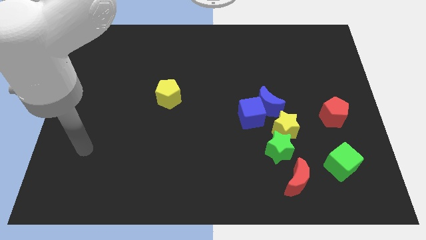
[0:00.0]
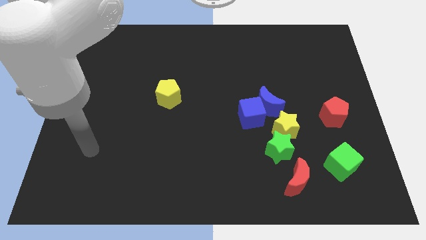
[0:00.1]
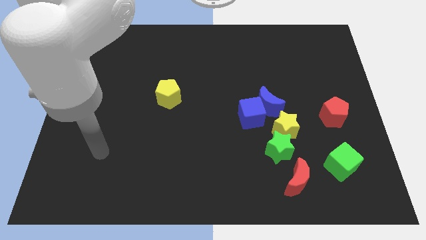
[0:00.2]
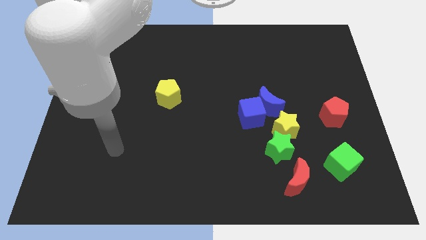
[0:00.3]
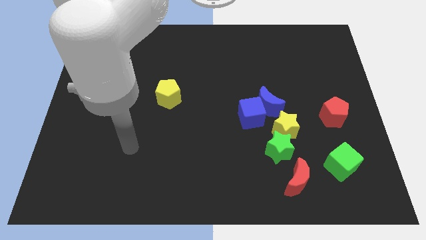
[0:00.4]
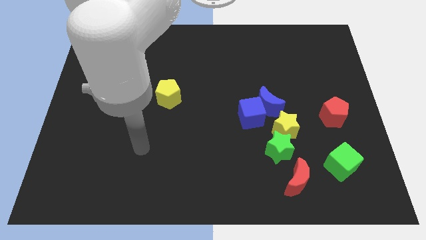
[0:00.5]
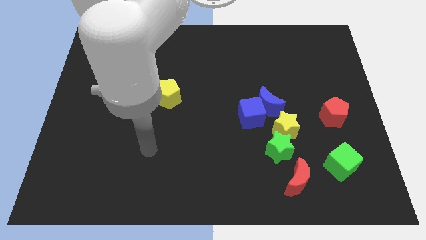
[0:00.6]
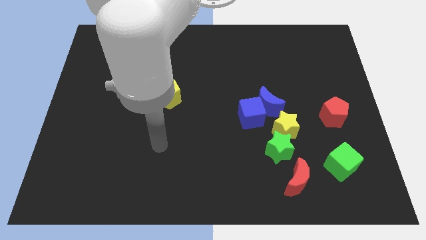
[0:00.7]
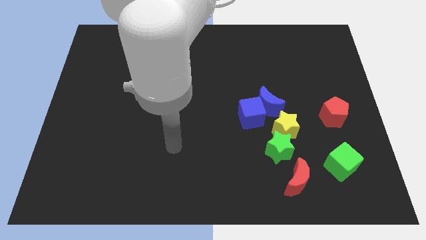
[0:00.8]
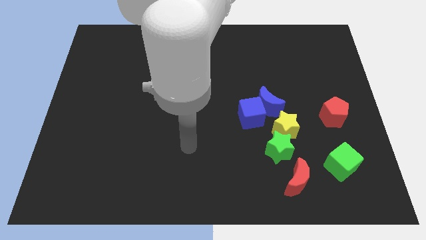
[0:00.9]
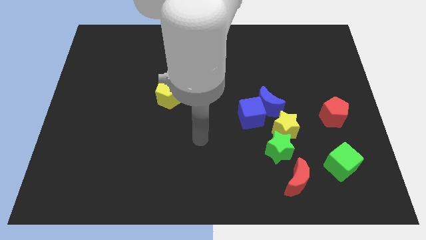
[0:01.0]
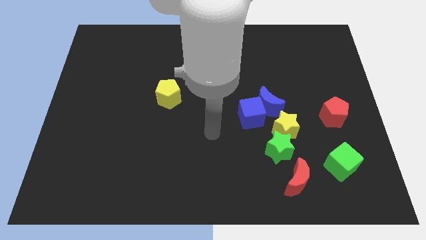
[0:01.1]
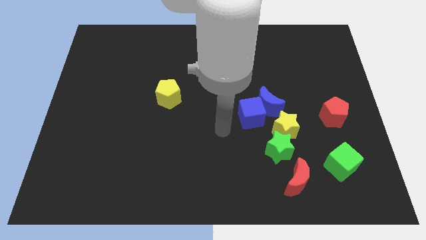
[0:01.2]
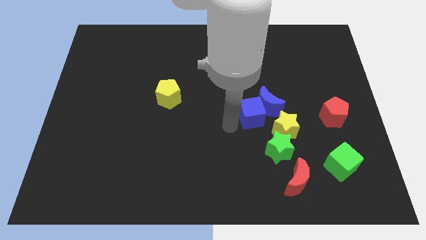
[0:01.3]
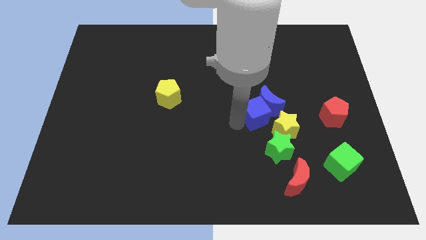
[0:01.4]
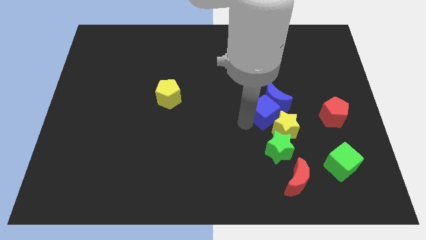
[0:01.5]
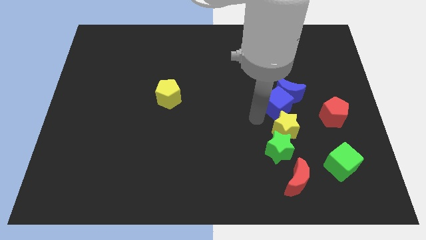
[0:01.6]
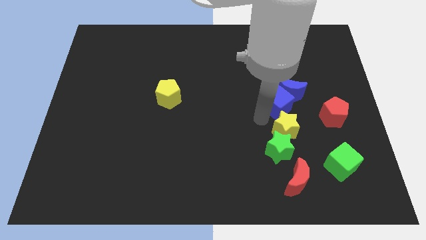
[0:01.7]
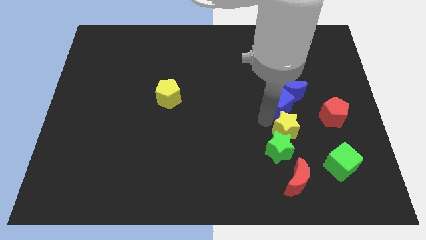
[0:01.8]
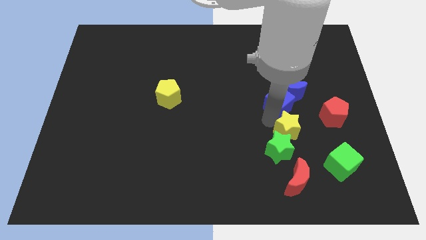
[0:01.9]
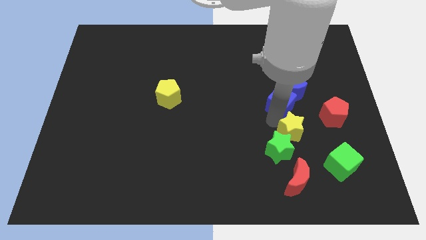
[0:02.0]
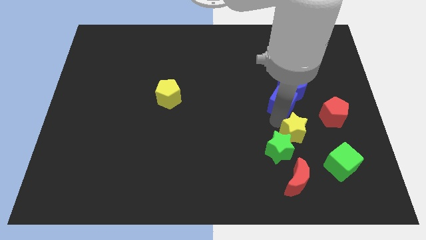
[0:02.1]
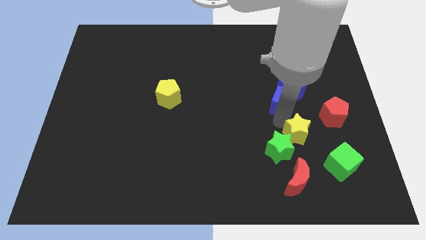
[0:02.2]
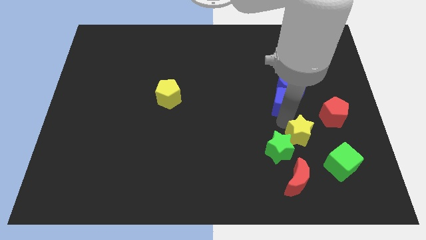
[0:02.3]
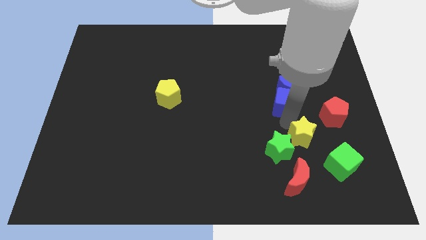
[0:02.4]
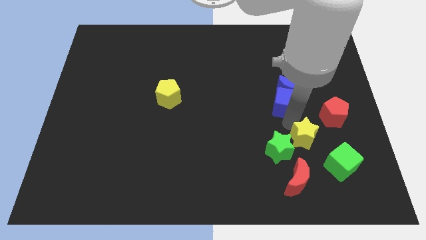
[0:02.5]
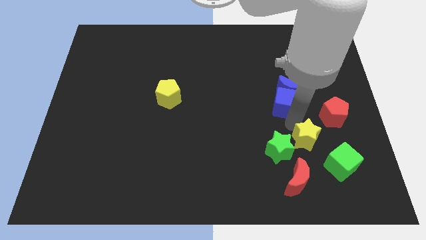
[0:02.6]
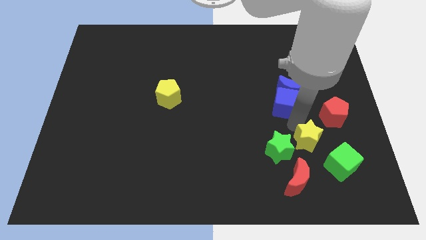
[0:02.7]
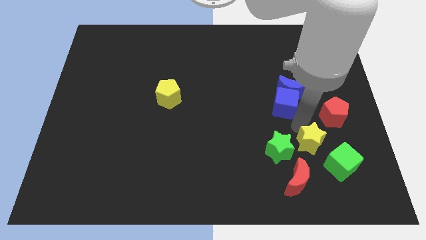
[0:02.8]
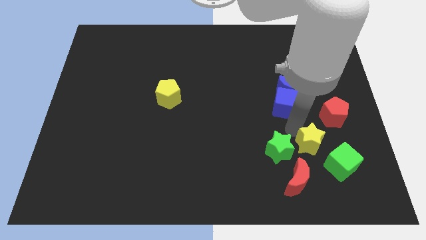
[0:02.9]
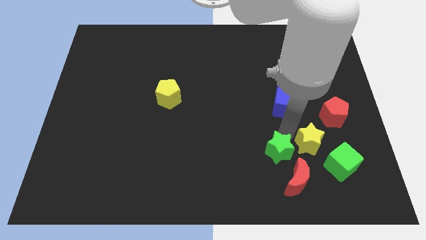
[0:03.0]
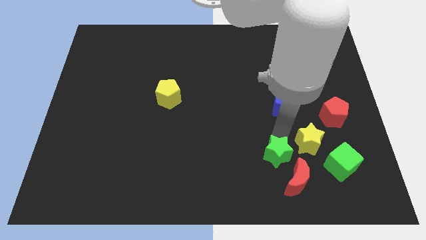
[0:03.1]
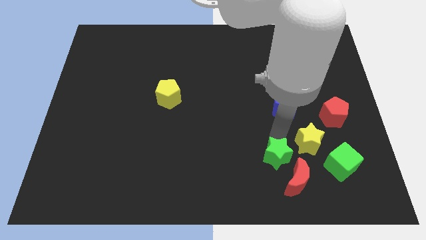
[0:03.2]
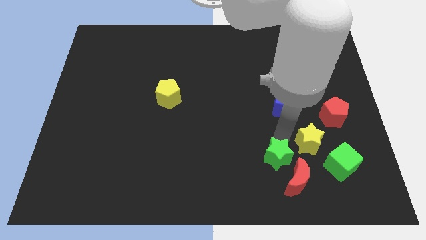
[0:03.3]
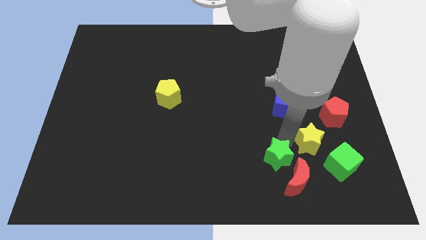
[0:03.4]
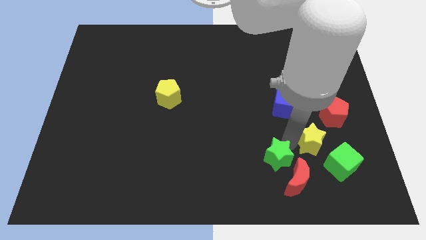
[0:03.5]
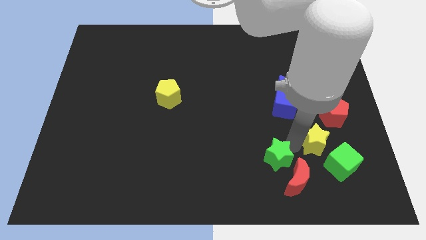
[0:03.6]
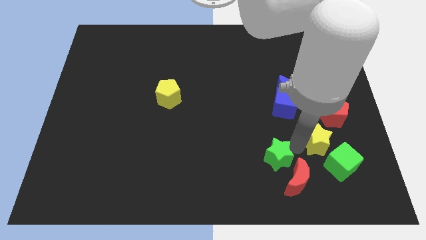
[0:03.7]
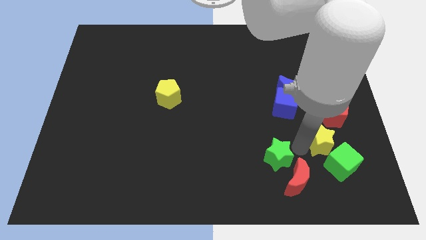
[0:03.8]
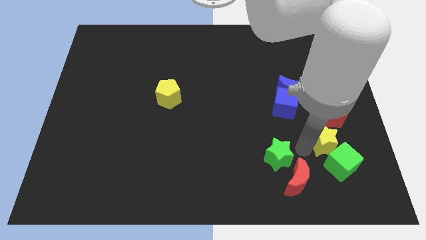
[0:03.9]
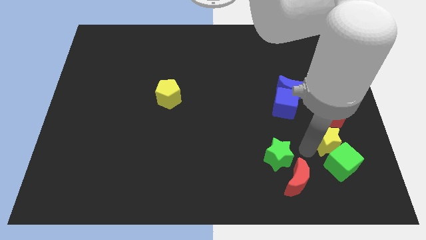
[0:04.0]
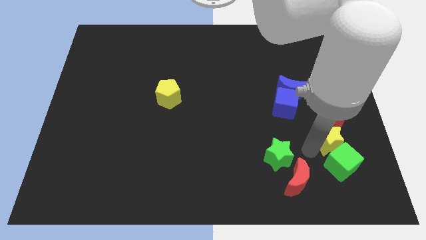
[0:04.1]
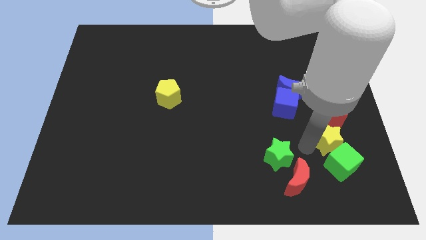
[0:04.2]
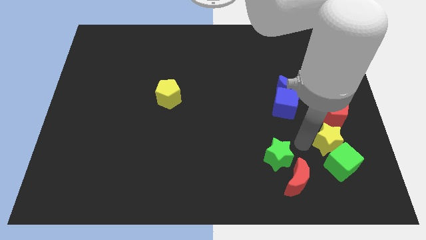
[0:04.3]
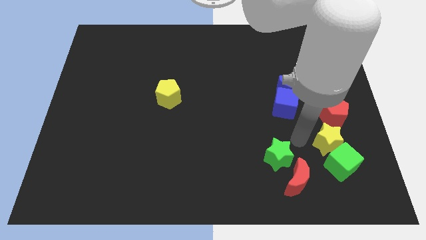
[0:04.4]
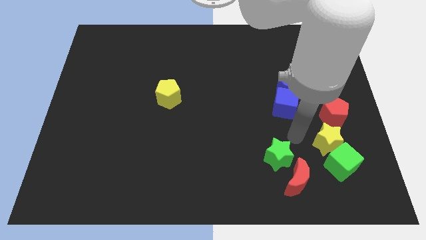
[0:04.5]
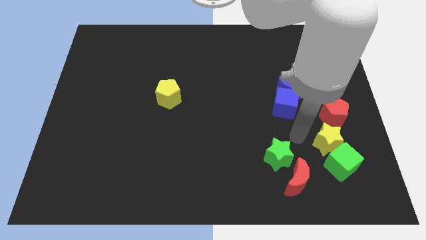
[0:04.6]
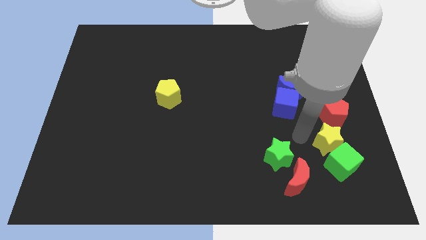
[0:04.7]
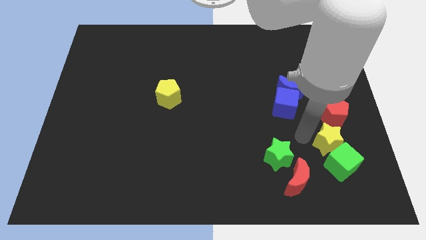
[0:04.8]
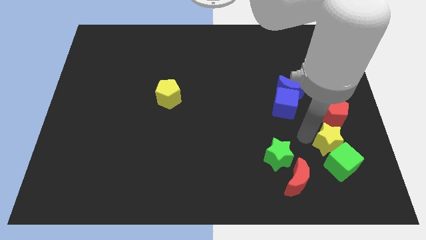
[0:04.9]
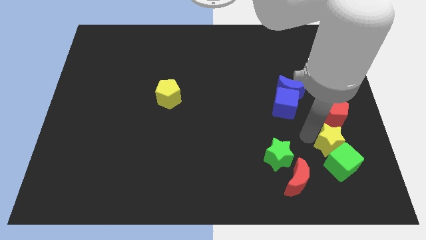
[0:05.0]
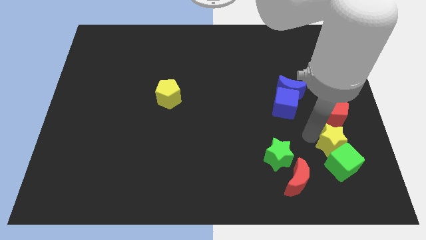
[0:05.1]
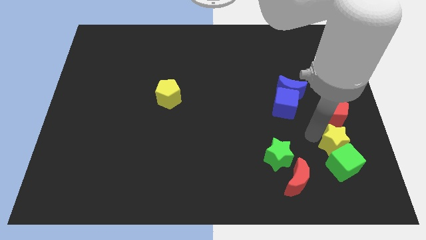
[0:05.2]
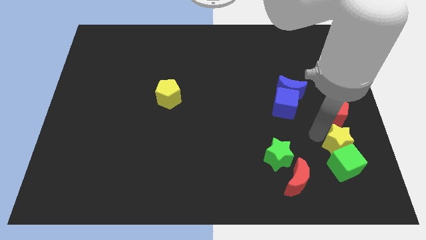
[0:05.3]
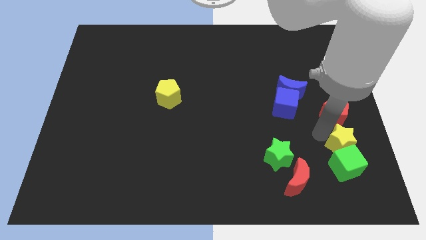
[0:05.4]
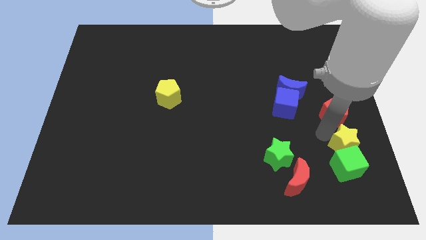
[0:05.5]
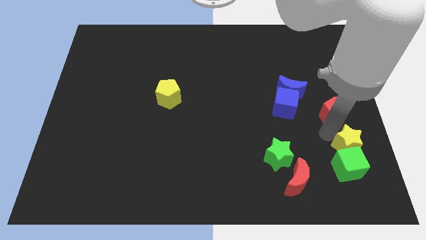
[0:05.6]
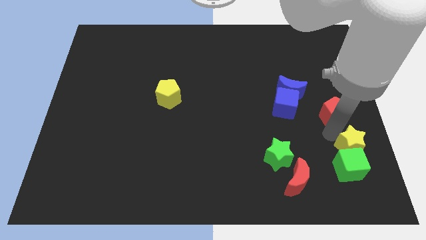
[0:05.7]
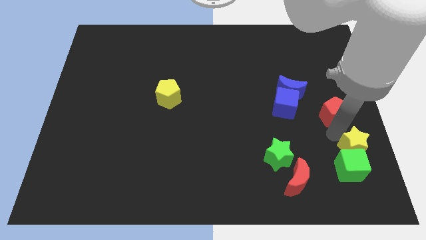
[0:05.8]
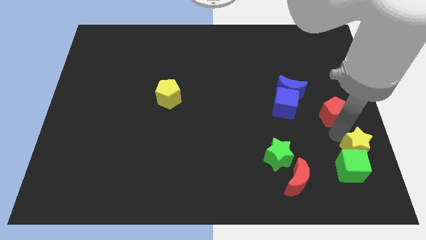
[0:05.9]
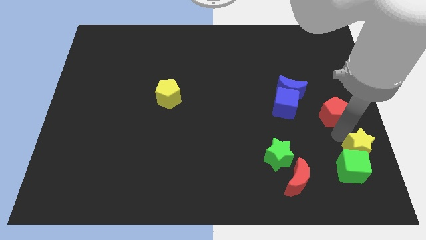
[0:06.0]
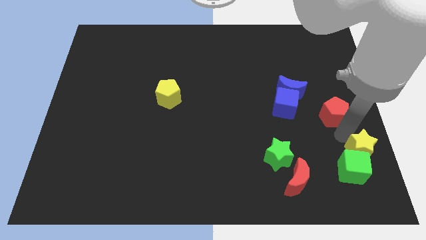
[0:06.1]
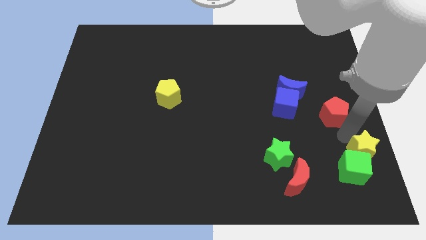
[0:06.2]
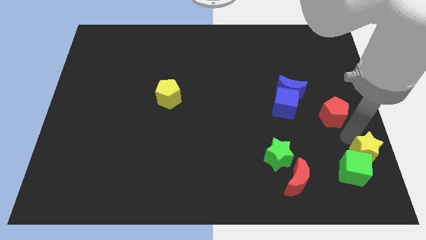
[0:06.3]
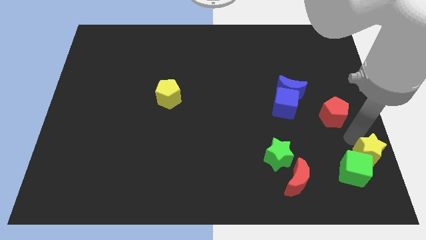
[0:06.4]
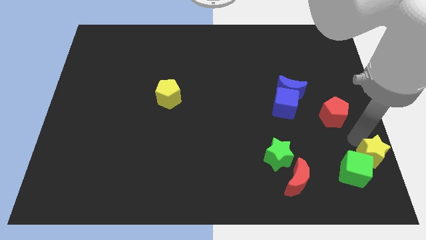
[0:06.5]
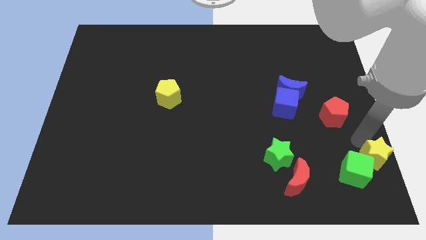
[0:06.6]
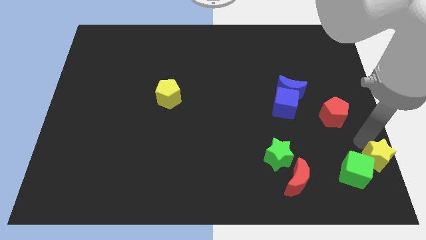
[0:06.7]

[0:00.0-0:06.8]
move the yellow star to the bottom right
